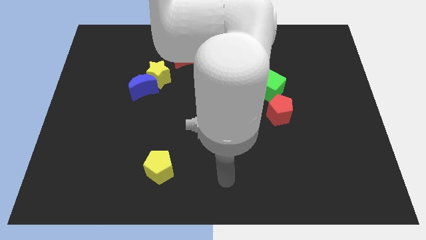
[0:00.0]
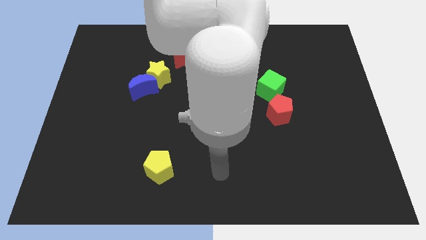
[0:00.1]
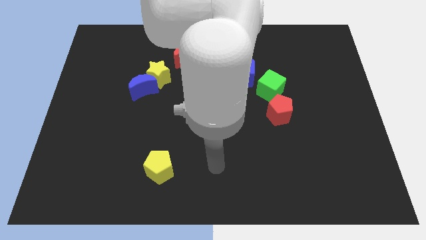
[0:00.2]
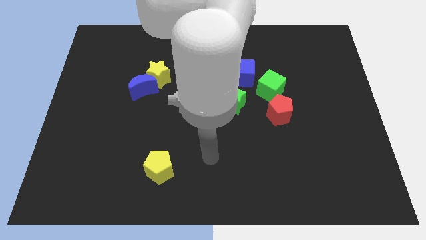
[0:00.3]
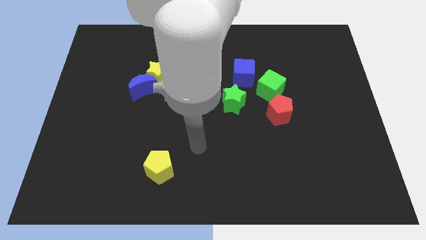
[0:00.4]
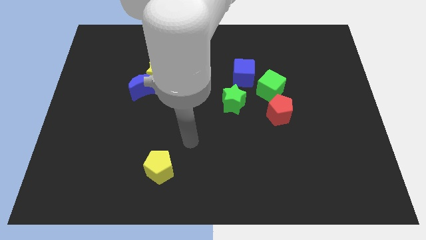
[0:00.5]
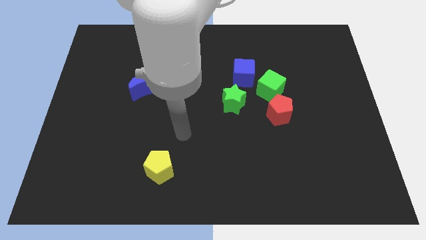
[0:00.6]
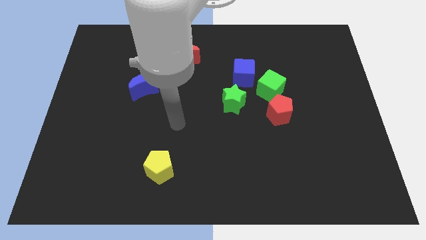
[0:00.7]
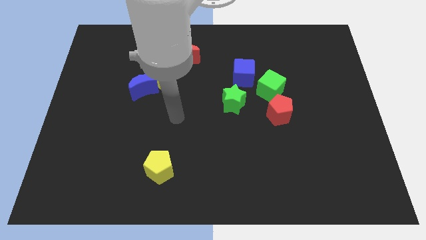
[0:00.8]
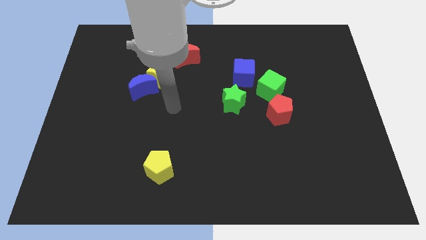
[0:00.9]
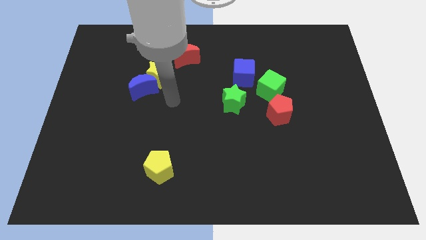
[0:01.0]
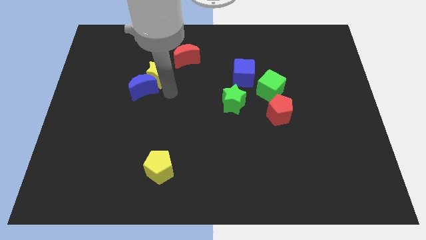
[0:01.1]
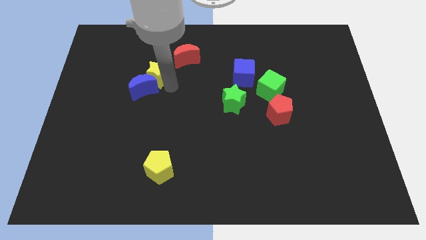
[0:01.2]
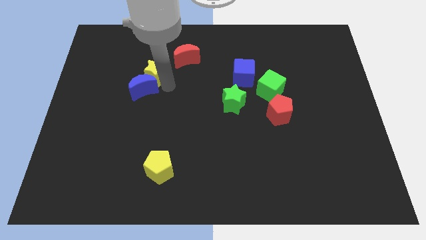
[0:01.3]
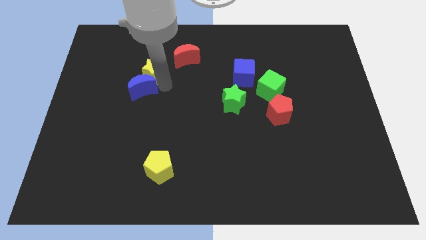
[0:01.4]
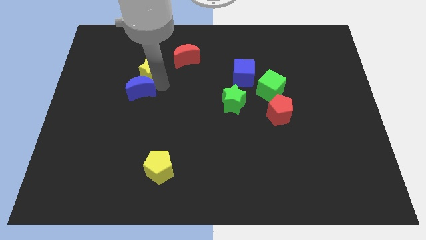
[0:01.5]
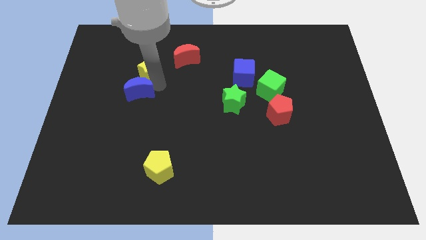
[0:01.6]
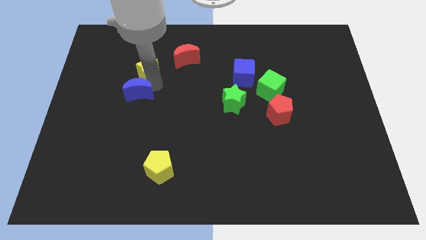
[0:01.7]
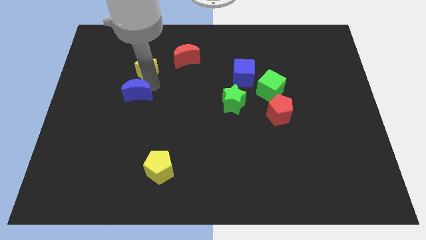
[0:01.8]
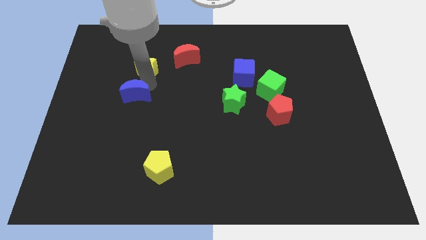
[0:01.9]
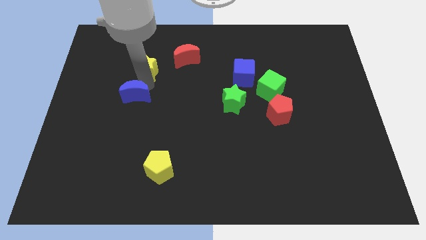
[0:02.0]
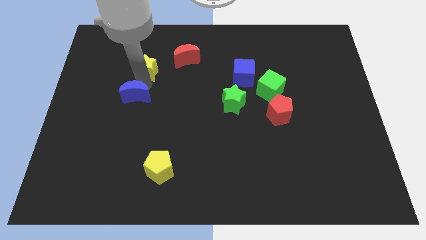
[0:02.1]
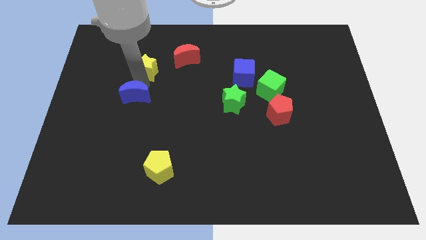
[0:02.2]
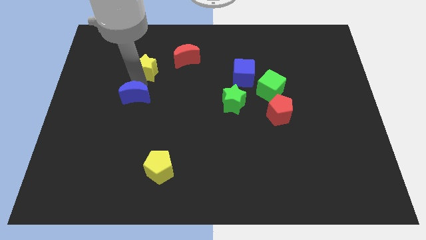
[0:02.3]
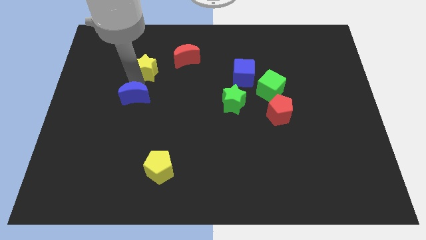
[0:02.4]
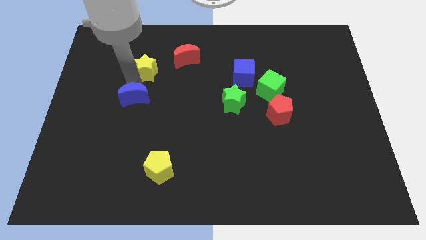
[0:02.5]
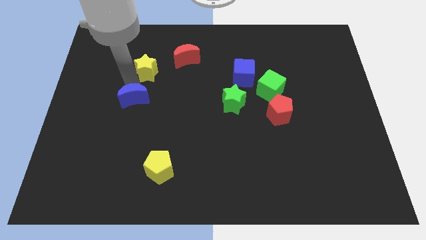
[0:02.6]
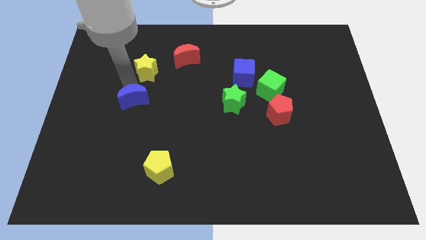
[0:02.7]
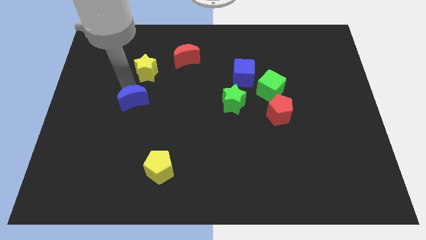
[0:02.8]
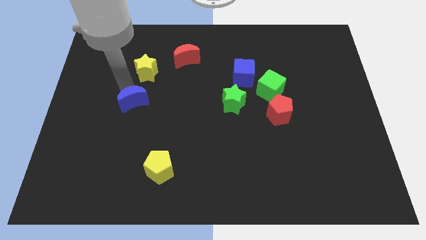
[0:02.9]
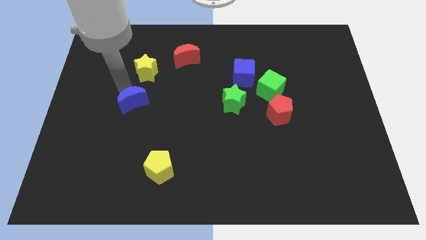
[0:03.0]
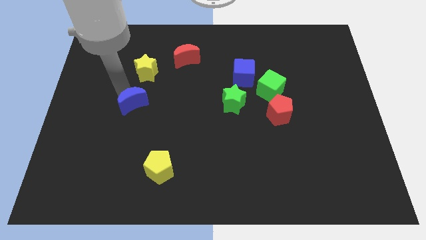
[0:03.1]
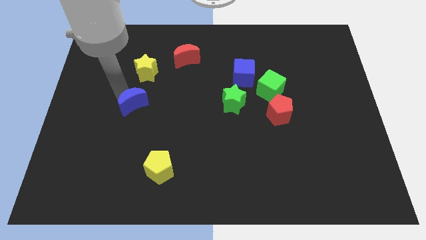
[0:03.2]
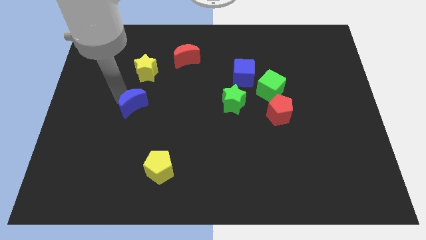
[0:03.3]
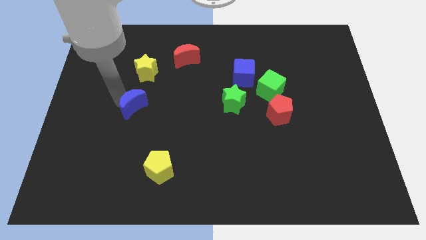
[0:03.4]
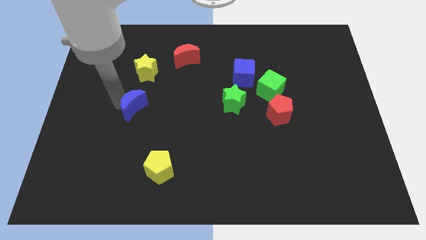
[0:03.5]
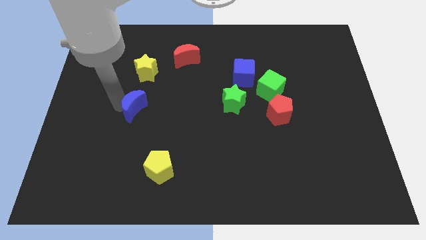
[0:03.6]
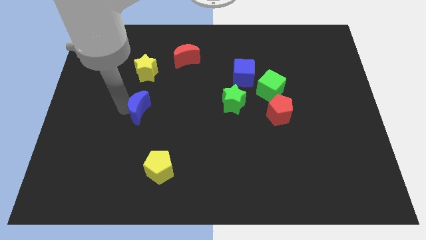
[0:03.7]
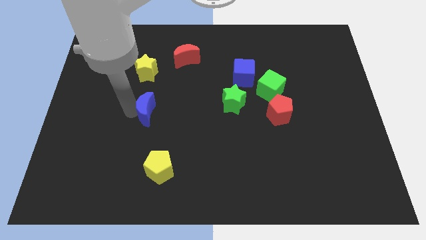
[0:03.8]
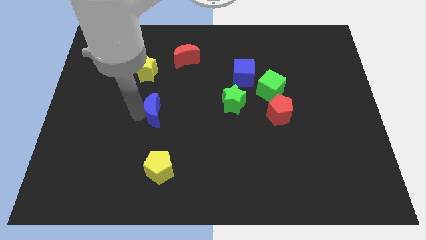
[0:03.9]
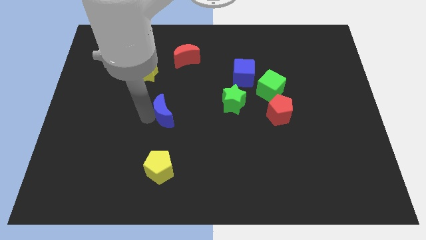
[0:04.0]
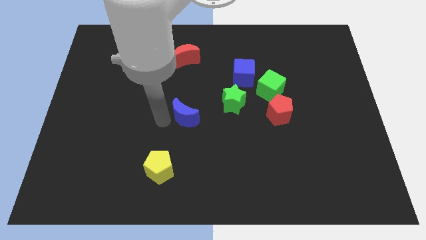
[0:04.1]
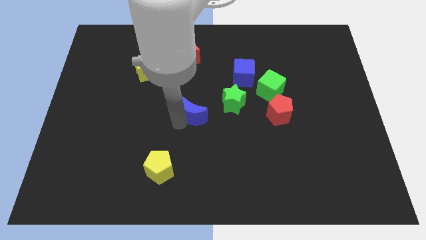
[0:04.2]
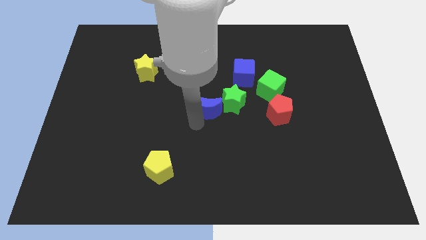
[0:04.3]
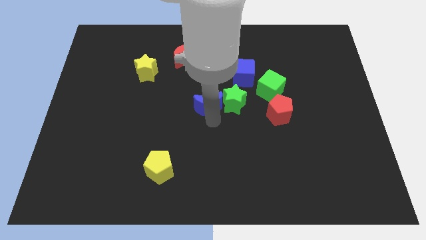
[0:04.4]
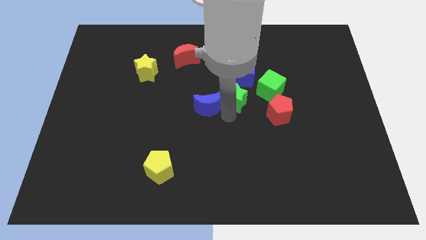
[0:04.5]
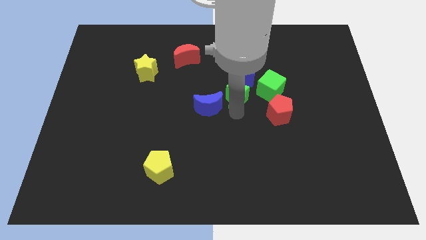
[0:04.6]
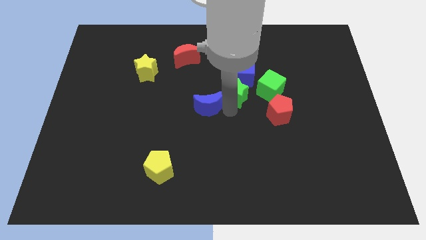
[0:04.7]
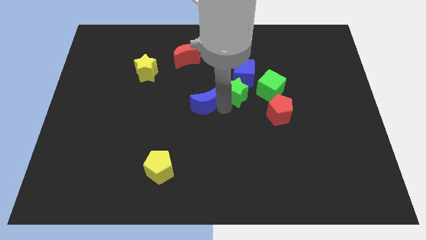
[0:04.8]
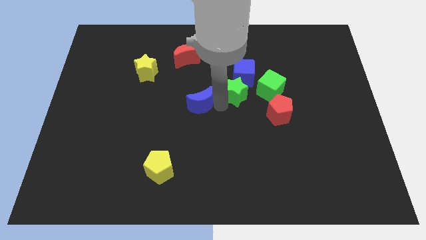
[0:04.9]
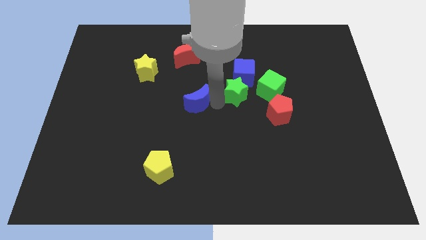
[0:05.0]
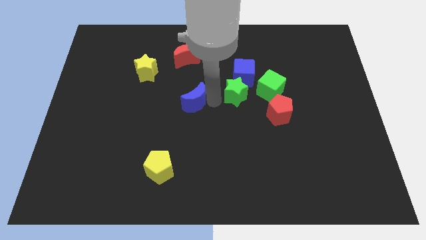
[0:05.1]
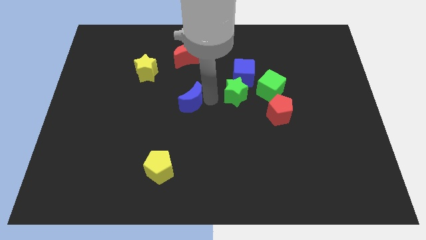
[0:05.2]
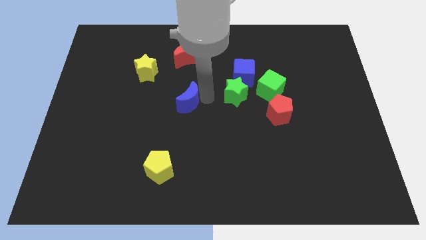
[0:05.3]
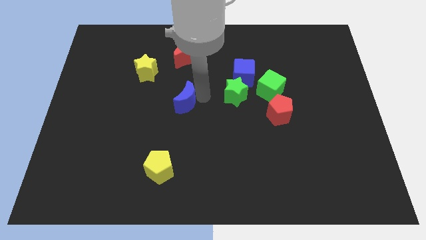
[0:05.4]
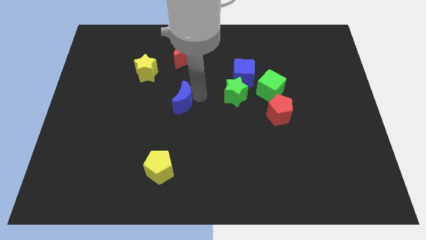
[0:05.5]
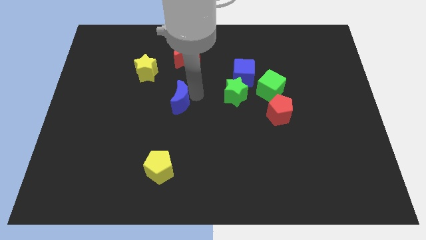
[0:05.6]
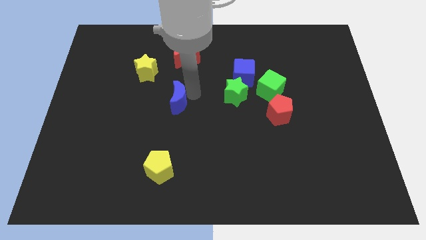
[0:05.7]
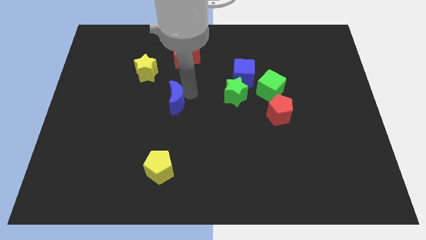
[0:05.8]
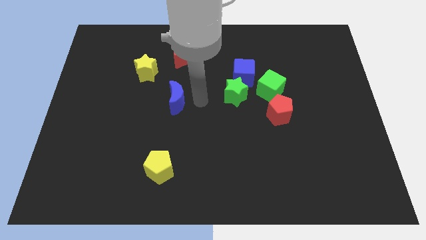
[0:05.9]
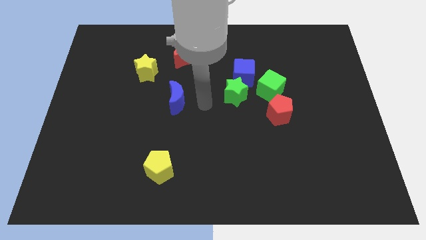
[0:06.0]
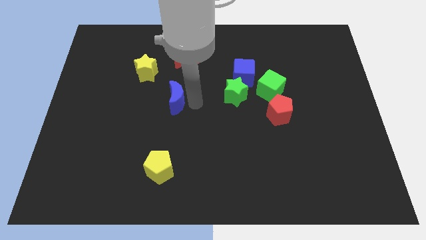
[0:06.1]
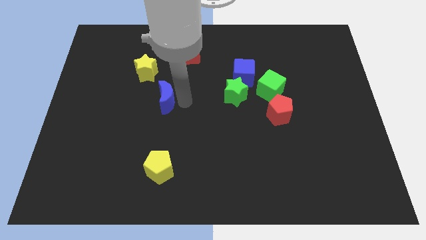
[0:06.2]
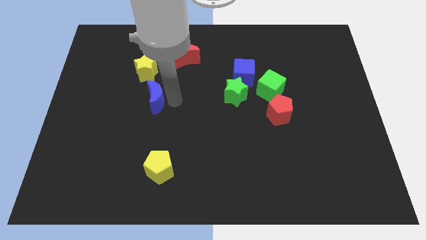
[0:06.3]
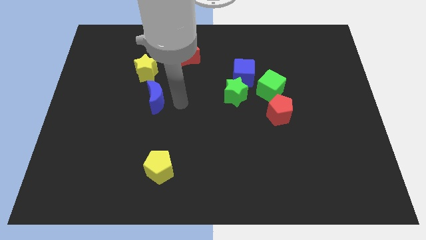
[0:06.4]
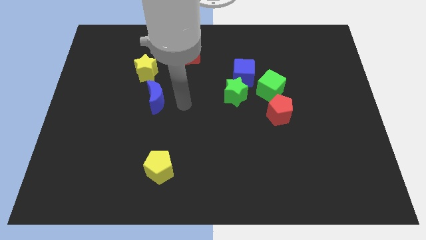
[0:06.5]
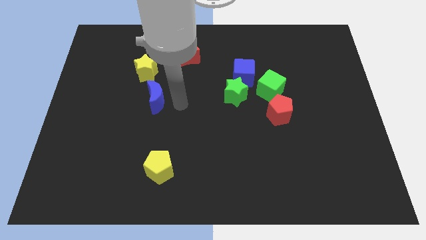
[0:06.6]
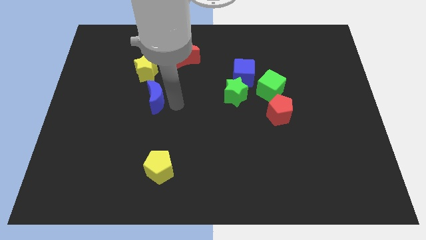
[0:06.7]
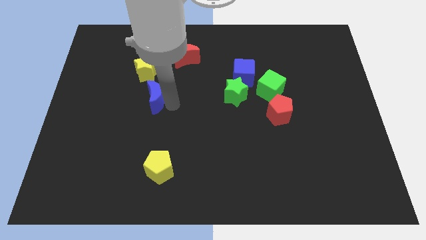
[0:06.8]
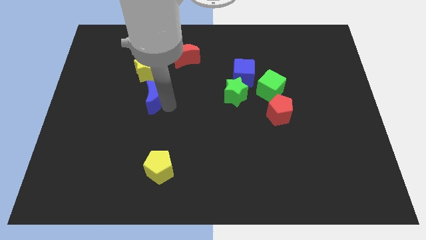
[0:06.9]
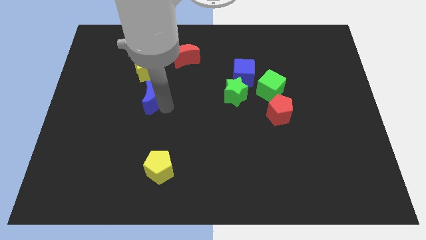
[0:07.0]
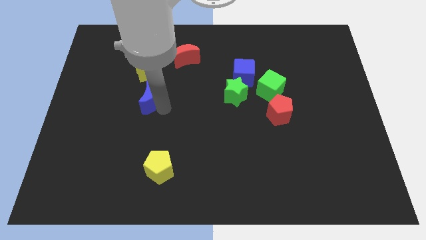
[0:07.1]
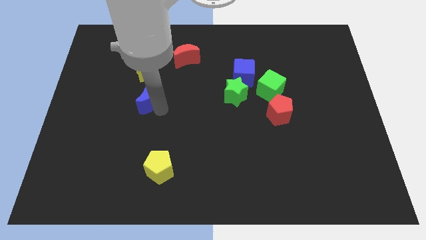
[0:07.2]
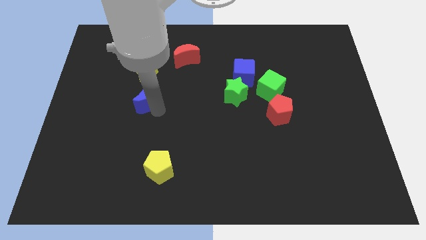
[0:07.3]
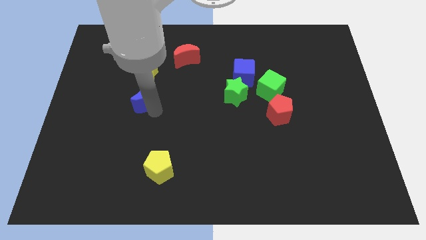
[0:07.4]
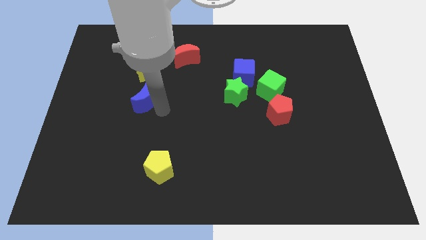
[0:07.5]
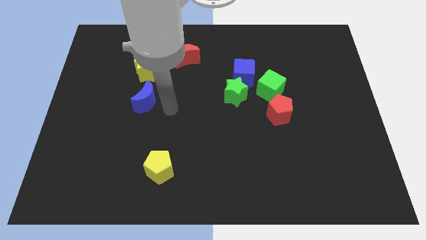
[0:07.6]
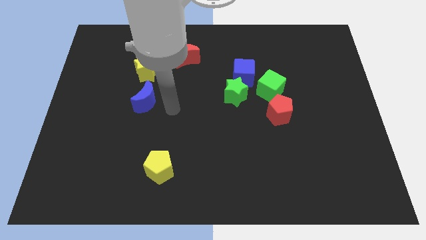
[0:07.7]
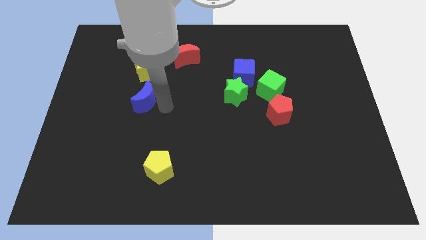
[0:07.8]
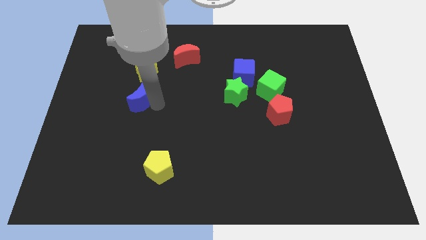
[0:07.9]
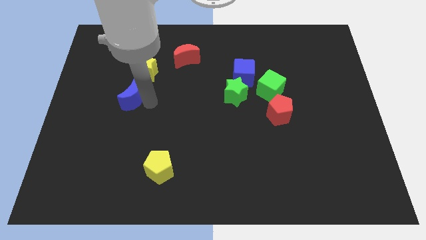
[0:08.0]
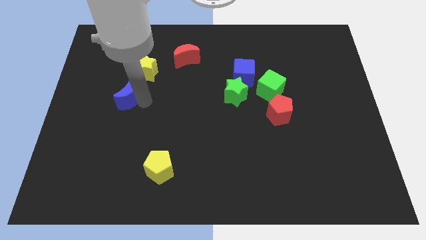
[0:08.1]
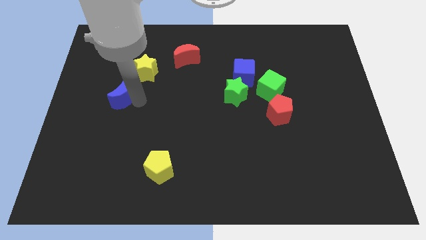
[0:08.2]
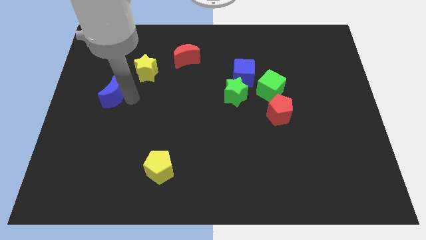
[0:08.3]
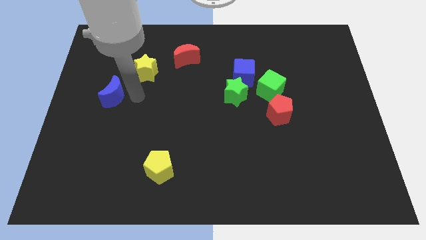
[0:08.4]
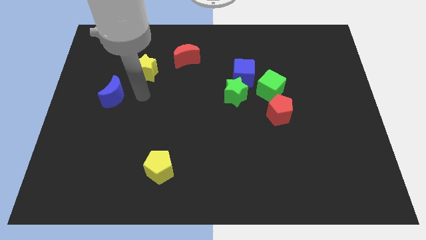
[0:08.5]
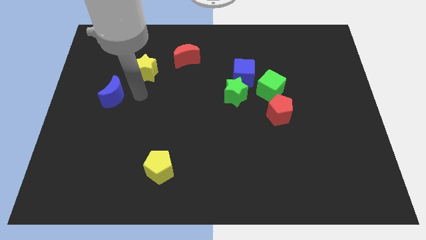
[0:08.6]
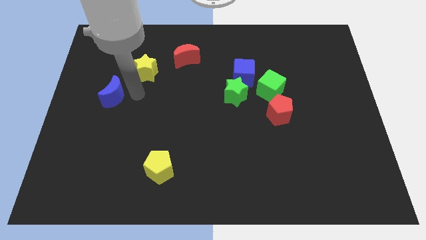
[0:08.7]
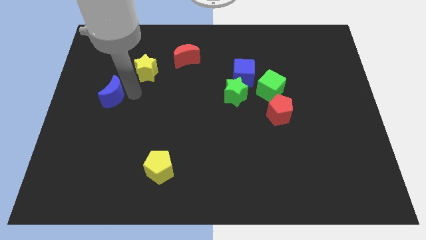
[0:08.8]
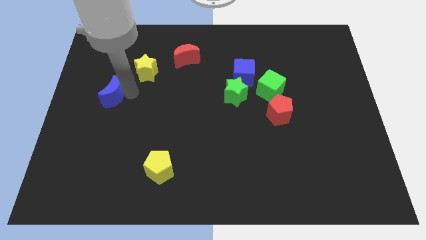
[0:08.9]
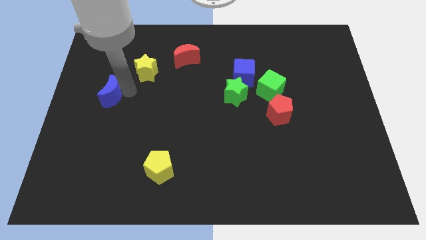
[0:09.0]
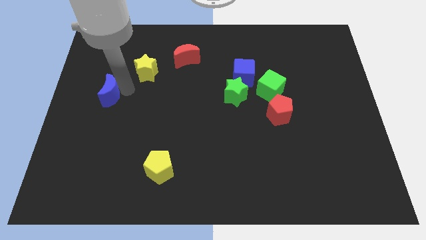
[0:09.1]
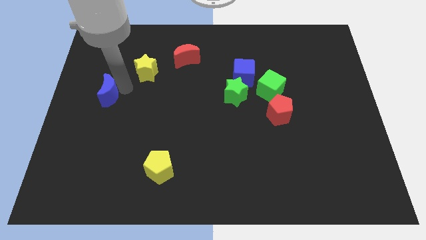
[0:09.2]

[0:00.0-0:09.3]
slide the blue moon to the left side of the board
